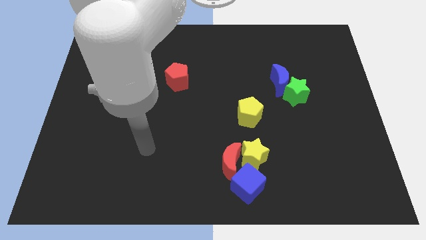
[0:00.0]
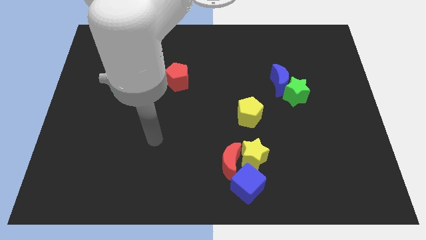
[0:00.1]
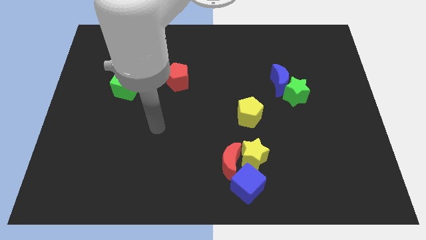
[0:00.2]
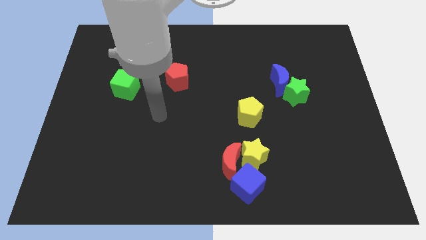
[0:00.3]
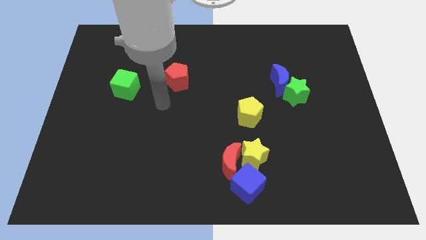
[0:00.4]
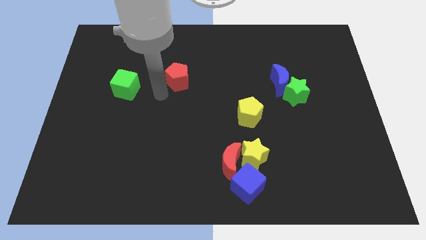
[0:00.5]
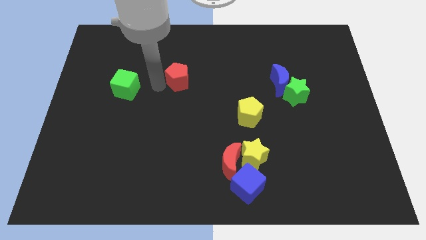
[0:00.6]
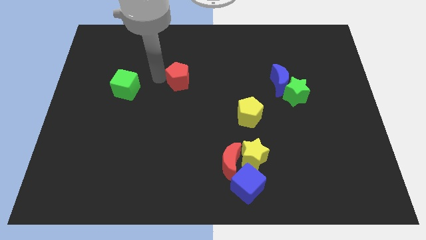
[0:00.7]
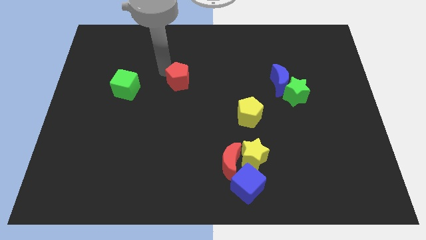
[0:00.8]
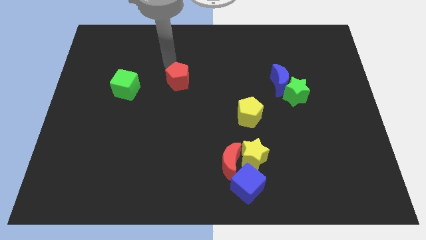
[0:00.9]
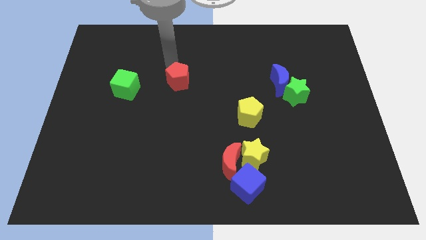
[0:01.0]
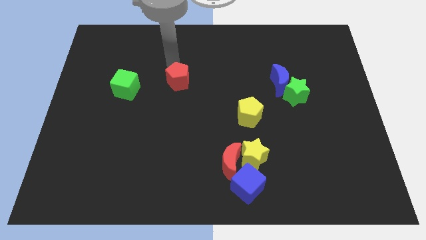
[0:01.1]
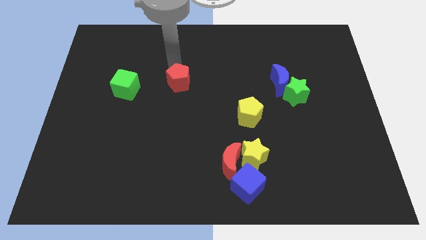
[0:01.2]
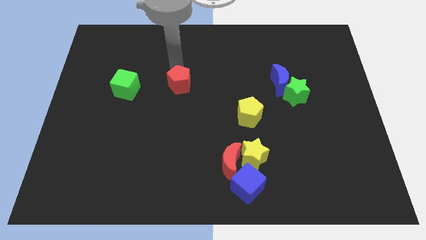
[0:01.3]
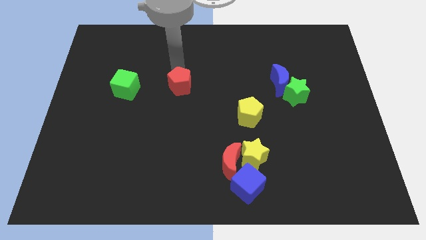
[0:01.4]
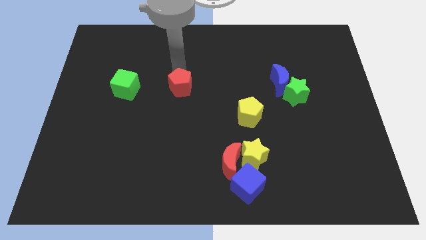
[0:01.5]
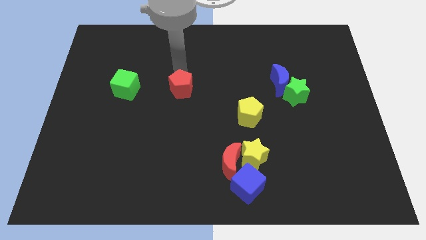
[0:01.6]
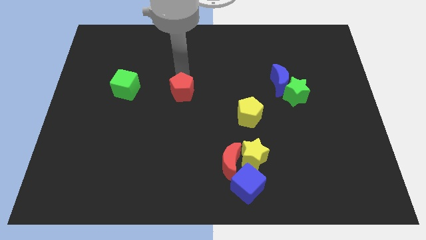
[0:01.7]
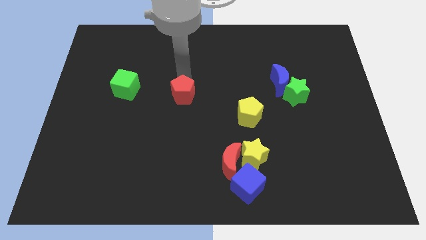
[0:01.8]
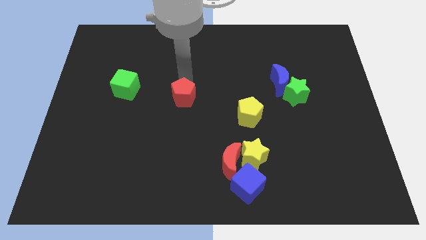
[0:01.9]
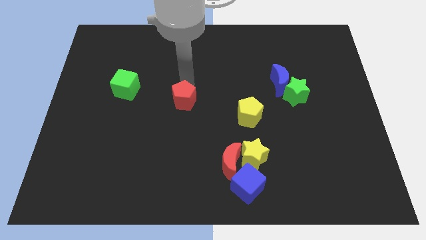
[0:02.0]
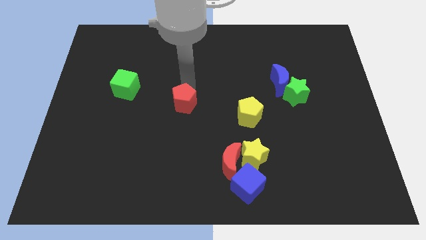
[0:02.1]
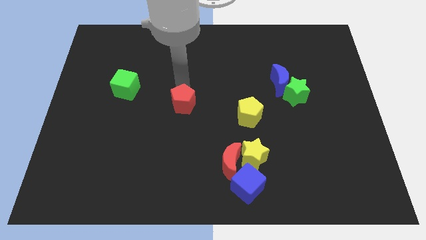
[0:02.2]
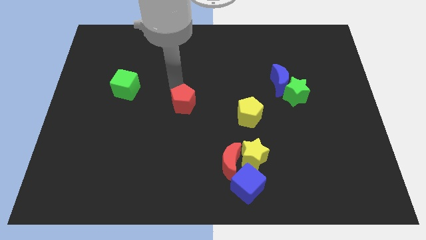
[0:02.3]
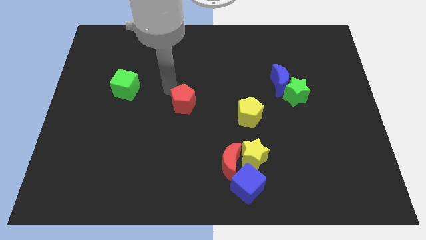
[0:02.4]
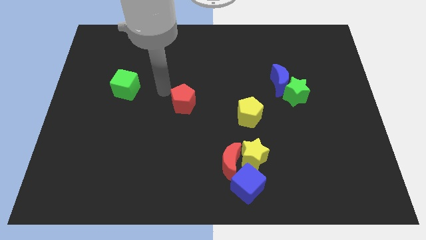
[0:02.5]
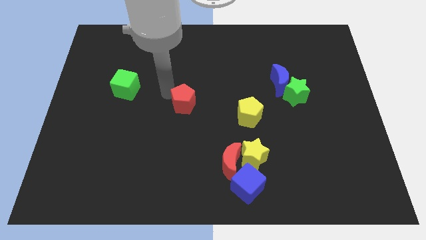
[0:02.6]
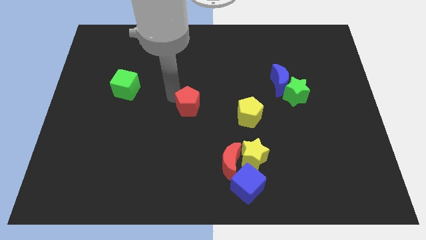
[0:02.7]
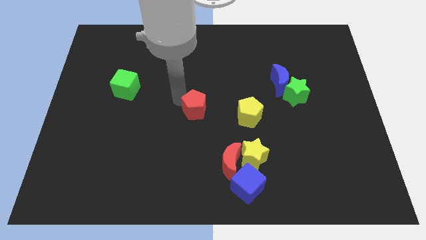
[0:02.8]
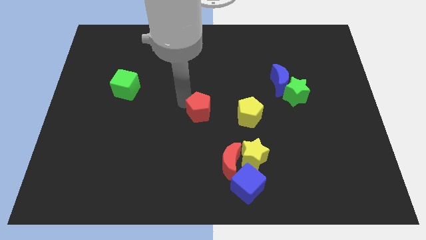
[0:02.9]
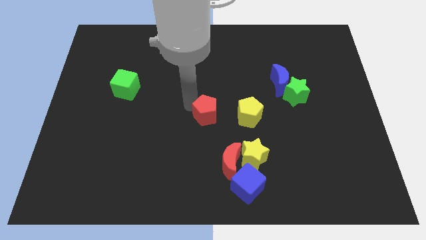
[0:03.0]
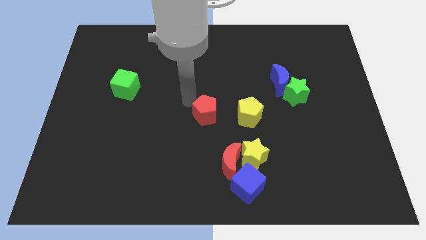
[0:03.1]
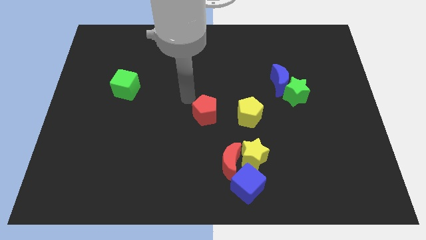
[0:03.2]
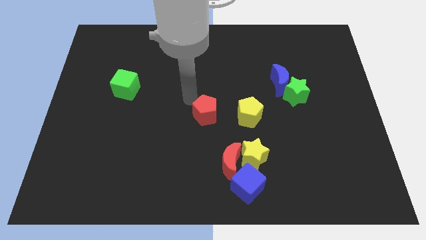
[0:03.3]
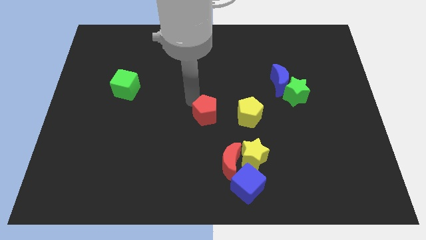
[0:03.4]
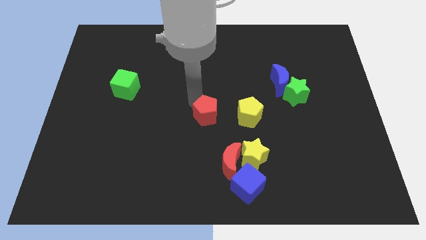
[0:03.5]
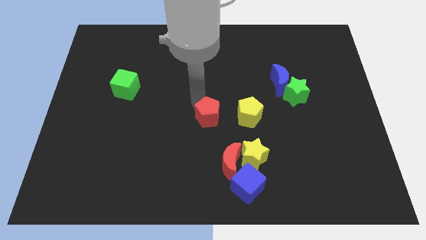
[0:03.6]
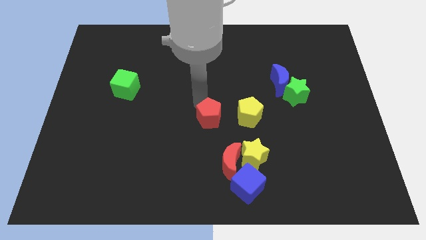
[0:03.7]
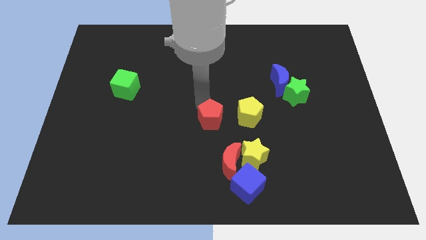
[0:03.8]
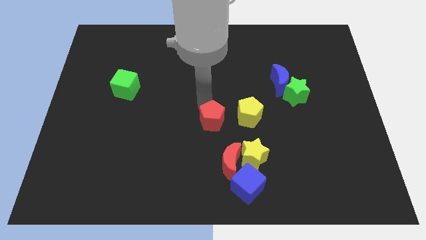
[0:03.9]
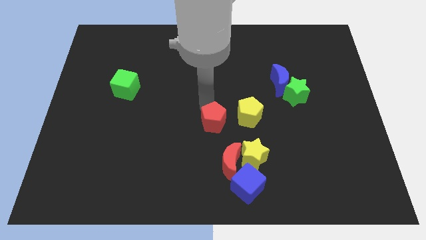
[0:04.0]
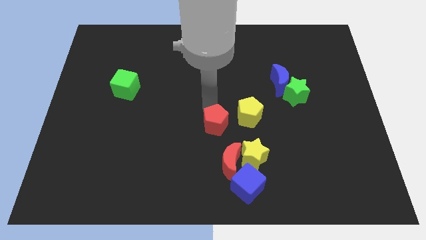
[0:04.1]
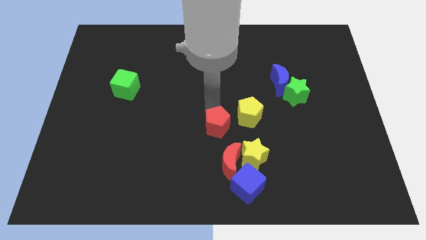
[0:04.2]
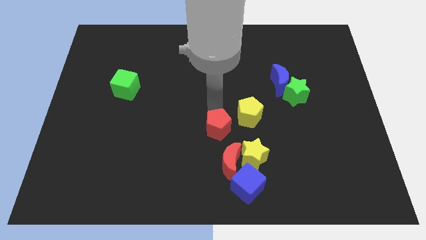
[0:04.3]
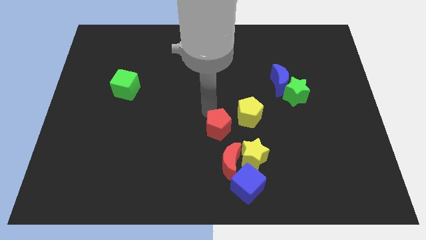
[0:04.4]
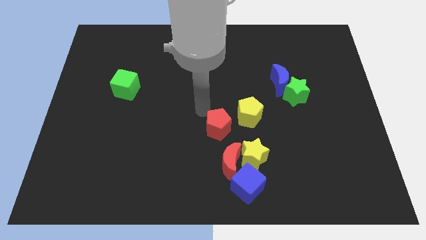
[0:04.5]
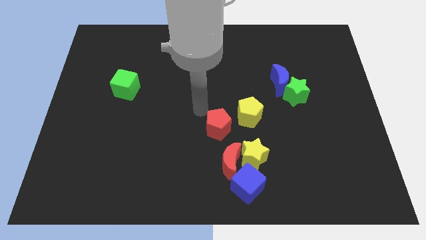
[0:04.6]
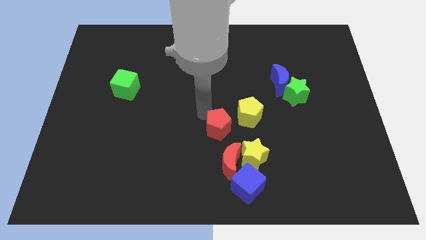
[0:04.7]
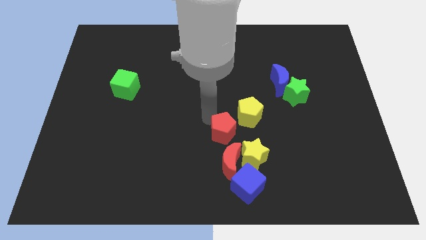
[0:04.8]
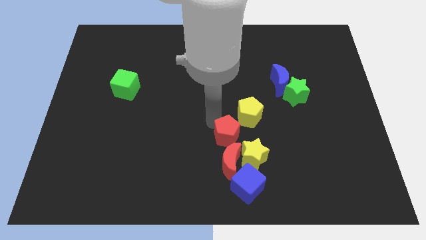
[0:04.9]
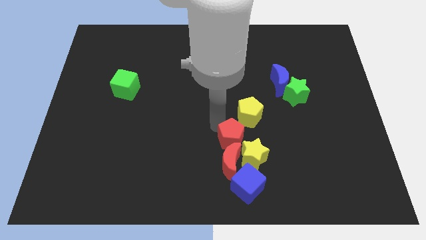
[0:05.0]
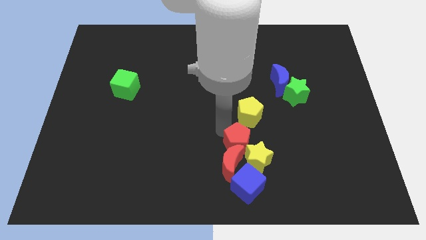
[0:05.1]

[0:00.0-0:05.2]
put the red pentagon to the yellow star

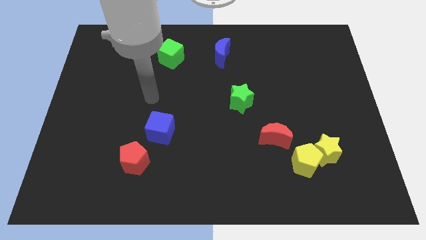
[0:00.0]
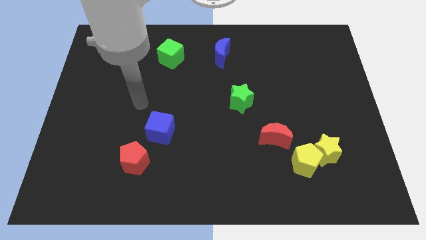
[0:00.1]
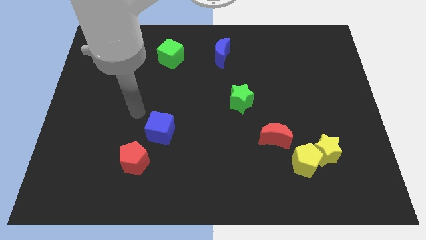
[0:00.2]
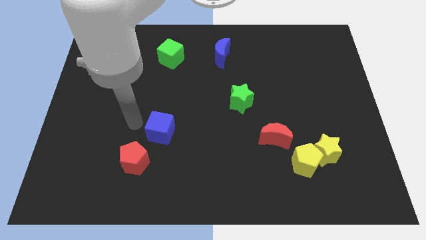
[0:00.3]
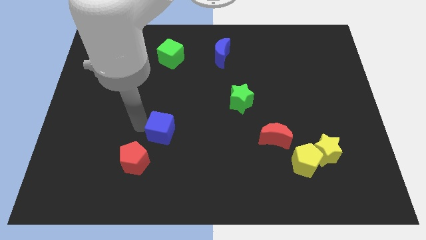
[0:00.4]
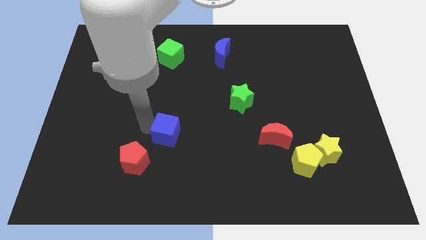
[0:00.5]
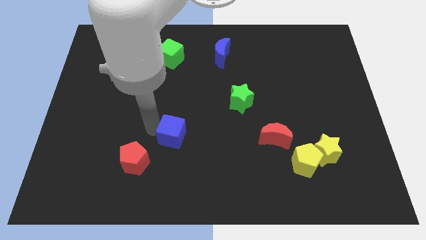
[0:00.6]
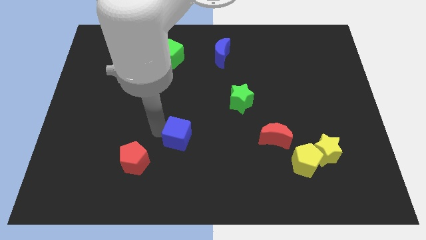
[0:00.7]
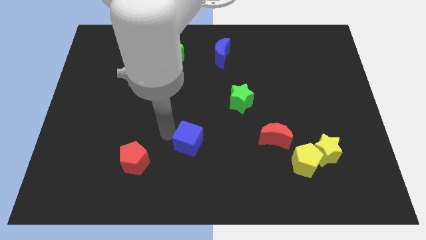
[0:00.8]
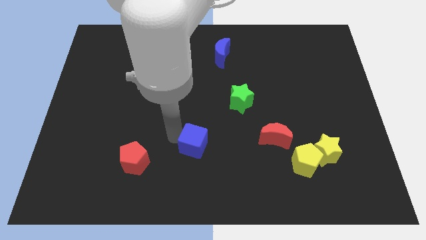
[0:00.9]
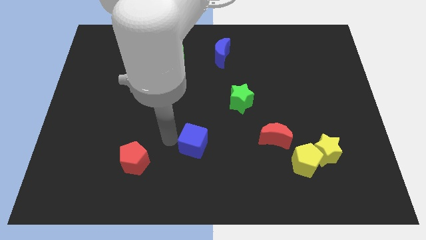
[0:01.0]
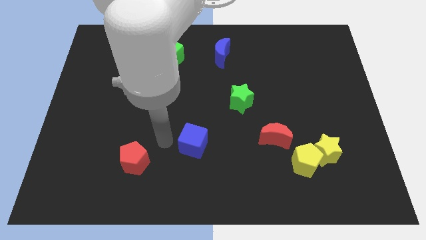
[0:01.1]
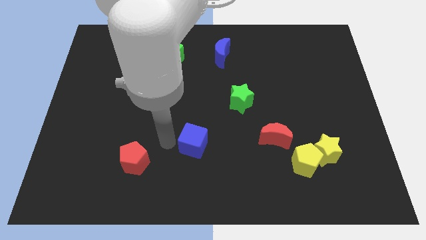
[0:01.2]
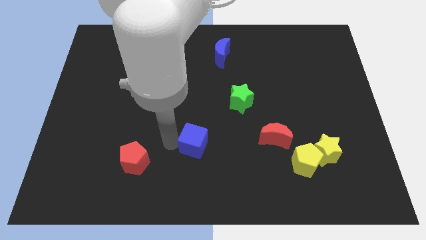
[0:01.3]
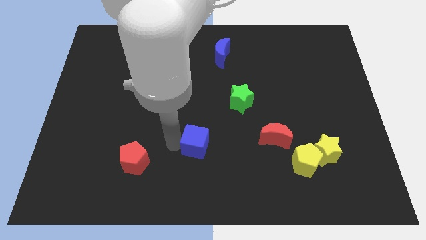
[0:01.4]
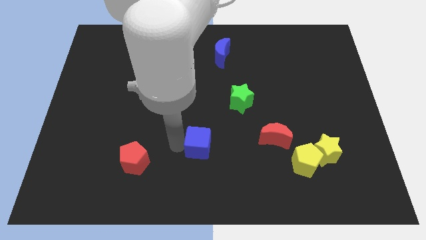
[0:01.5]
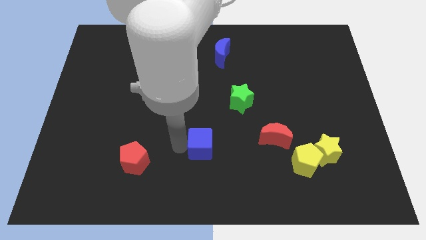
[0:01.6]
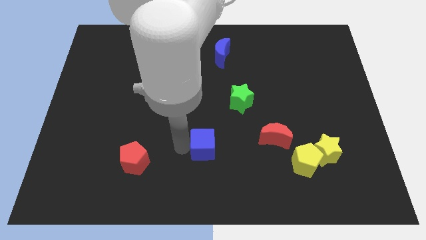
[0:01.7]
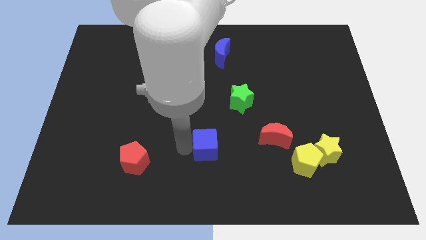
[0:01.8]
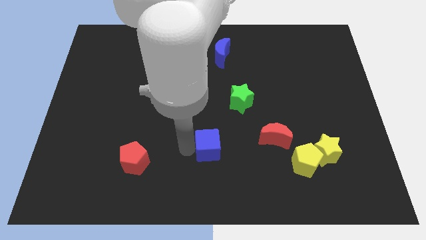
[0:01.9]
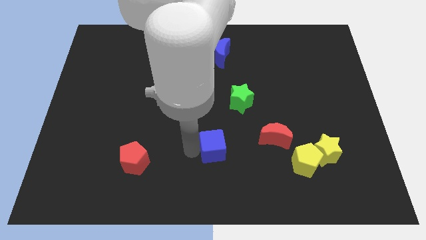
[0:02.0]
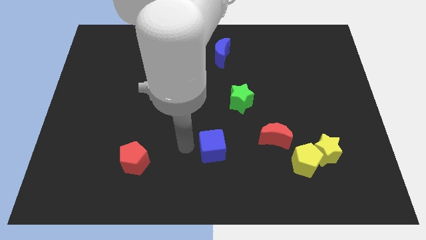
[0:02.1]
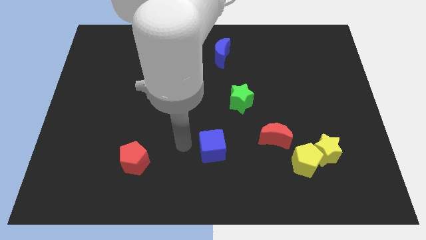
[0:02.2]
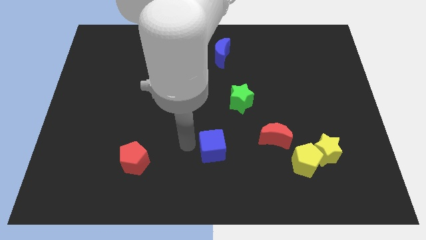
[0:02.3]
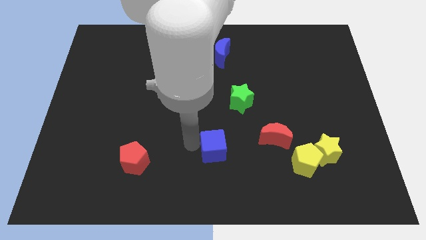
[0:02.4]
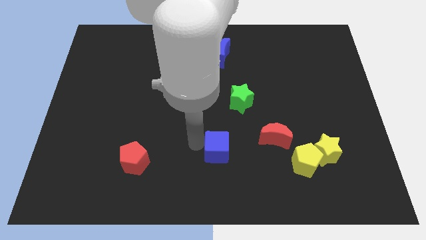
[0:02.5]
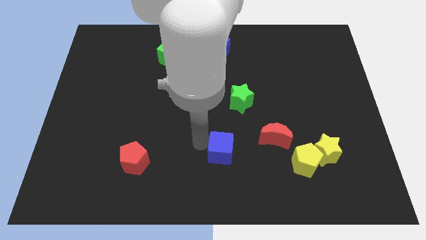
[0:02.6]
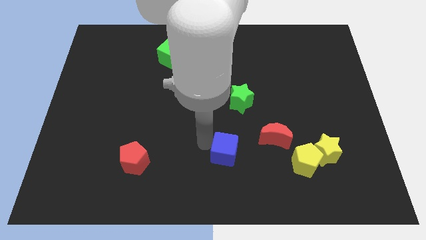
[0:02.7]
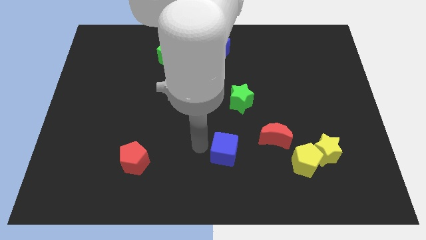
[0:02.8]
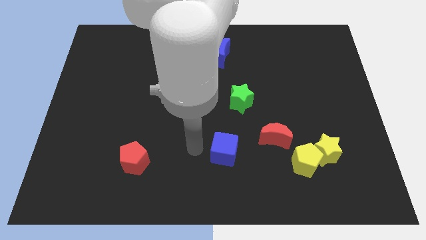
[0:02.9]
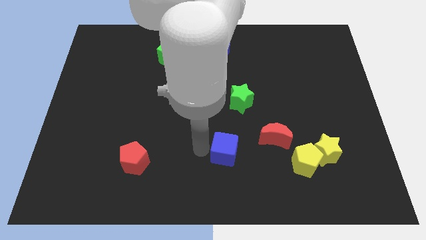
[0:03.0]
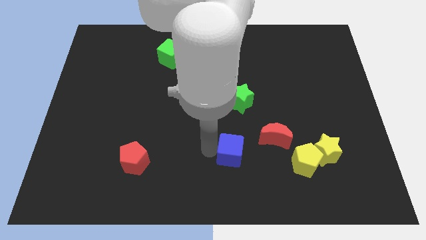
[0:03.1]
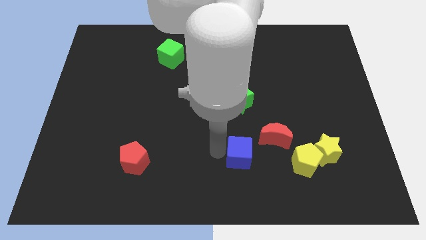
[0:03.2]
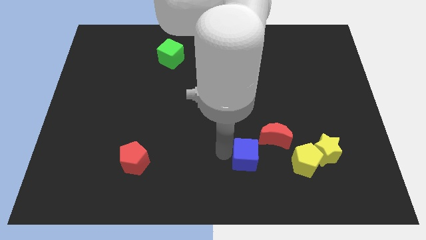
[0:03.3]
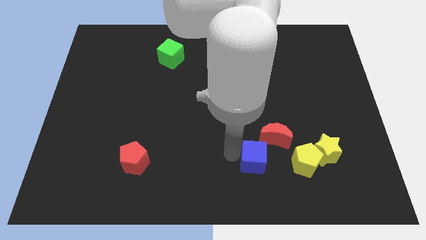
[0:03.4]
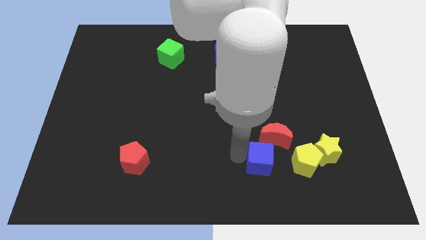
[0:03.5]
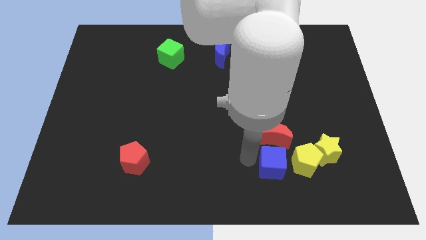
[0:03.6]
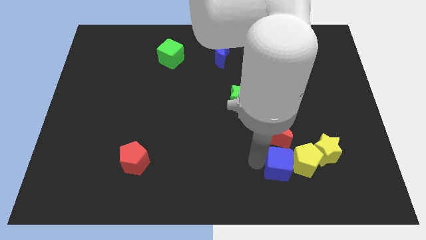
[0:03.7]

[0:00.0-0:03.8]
slide the blue cube close to the yellow pentagon
